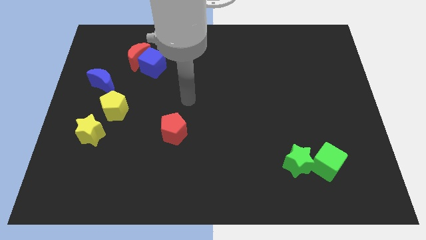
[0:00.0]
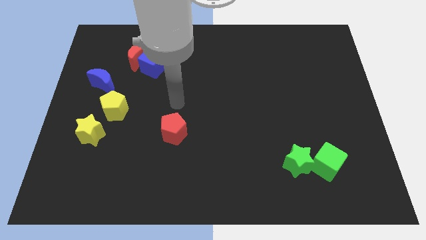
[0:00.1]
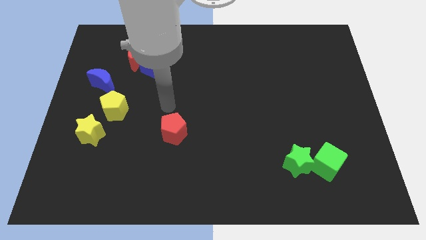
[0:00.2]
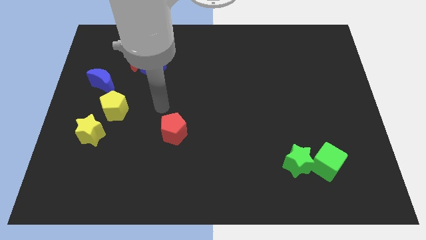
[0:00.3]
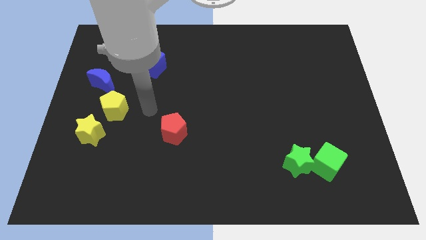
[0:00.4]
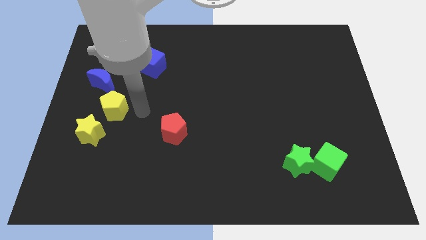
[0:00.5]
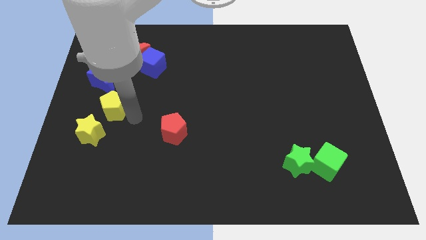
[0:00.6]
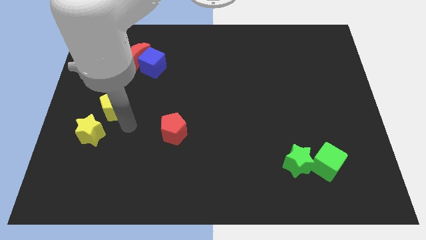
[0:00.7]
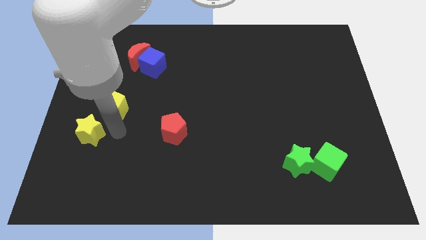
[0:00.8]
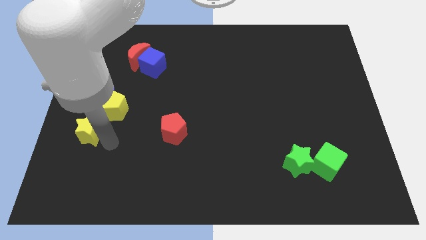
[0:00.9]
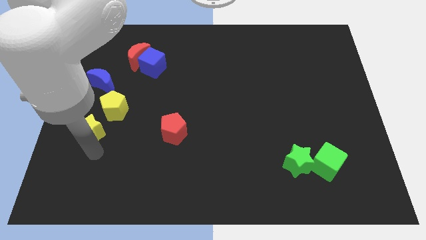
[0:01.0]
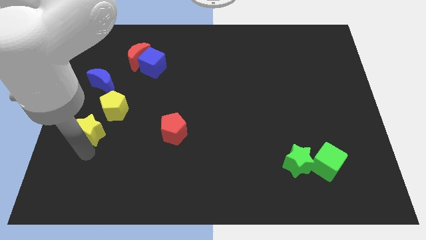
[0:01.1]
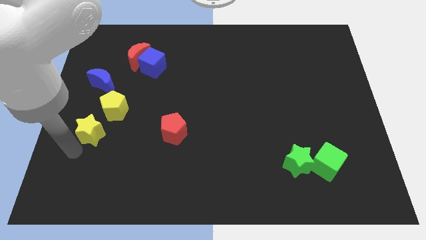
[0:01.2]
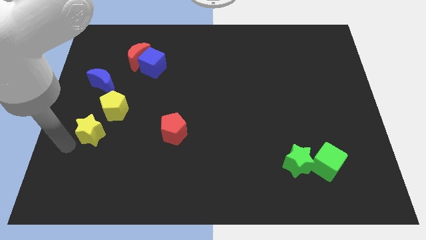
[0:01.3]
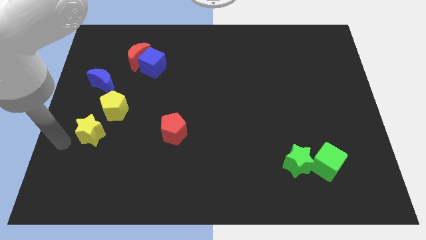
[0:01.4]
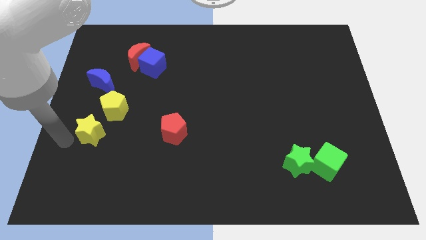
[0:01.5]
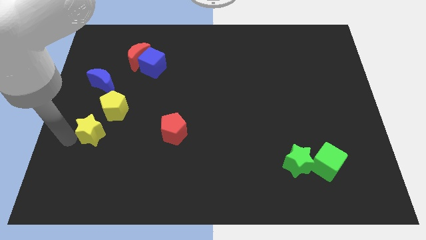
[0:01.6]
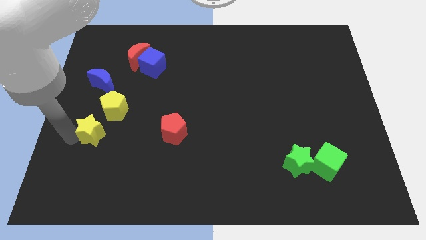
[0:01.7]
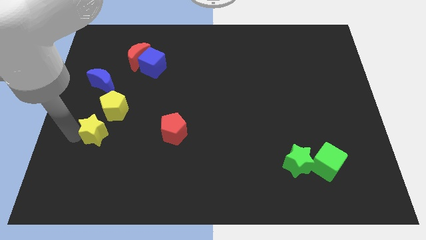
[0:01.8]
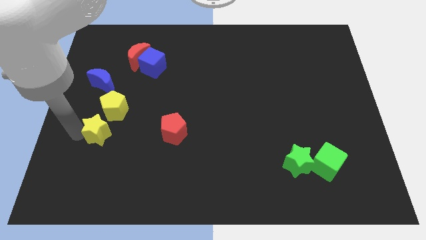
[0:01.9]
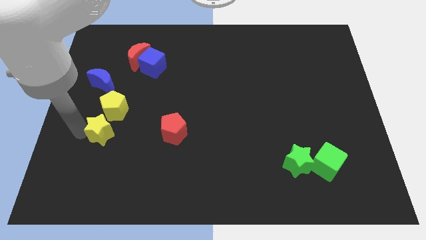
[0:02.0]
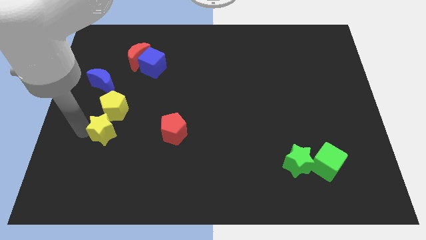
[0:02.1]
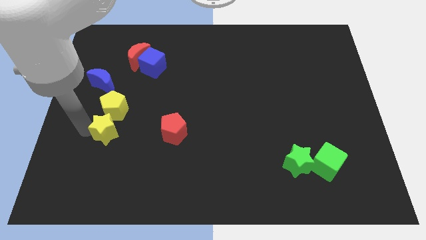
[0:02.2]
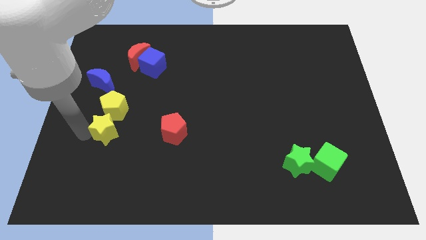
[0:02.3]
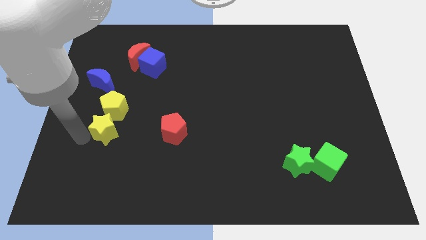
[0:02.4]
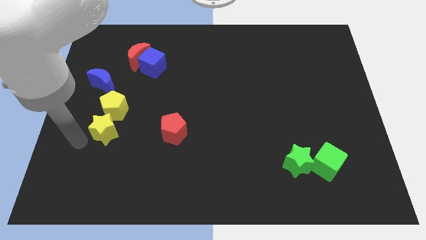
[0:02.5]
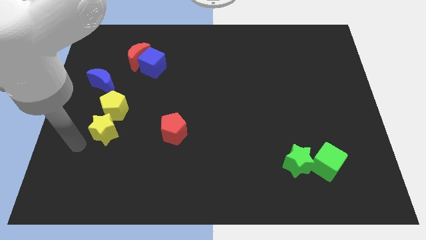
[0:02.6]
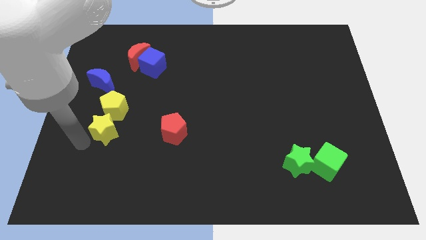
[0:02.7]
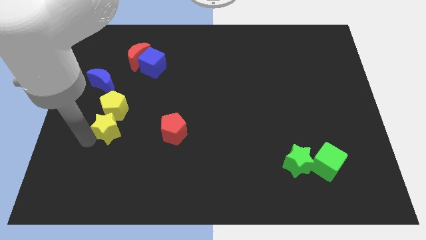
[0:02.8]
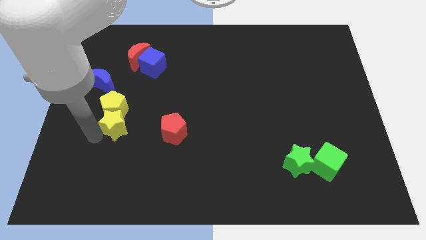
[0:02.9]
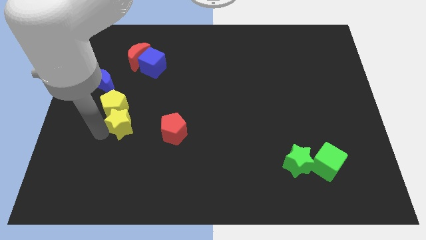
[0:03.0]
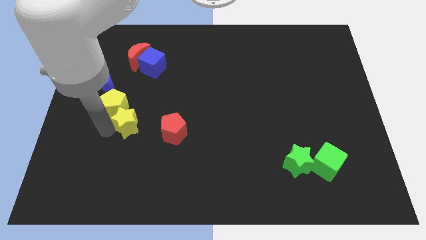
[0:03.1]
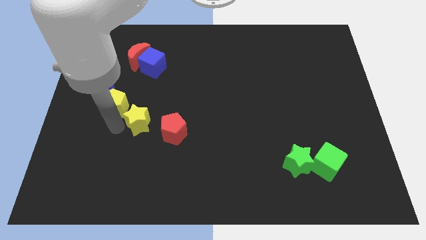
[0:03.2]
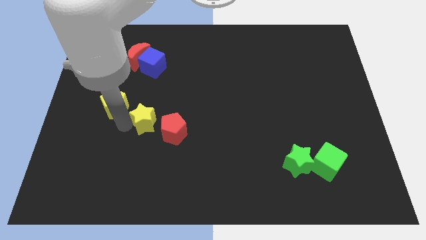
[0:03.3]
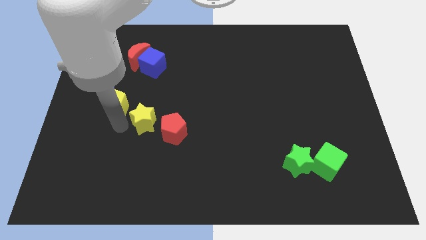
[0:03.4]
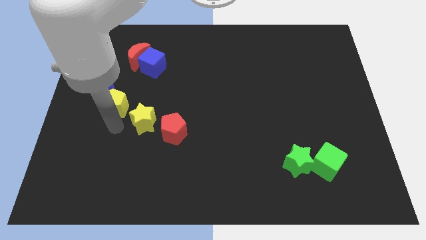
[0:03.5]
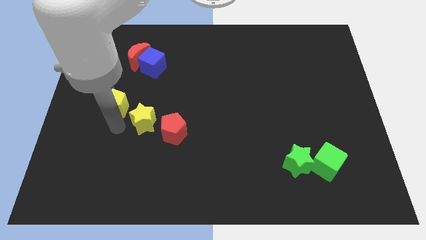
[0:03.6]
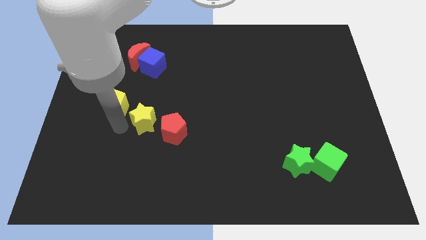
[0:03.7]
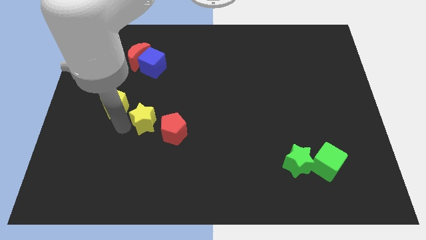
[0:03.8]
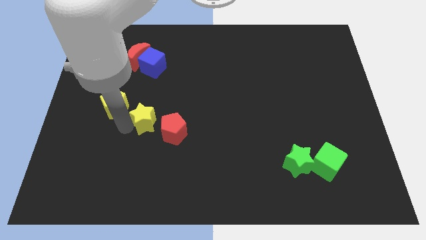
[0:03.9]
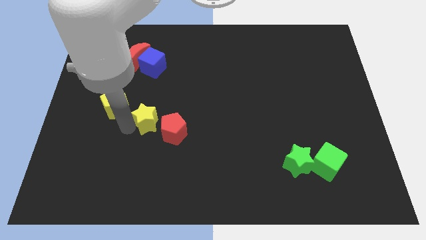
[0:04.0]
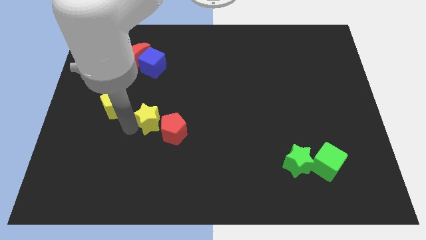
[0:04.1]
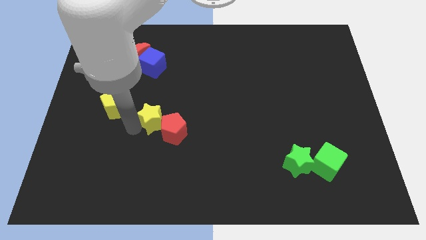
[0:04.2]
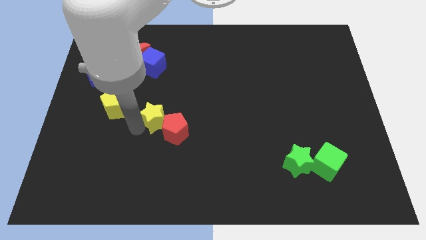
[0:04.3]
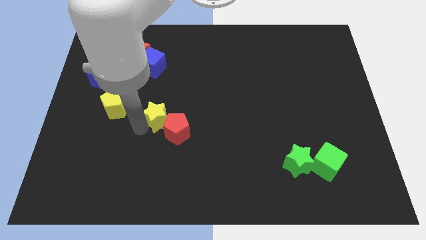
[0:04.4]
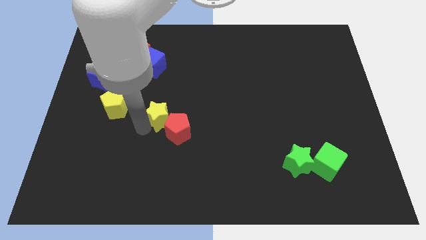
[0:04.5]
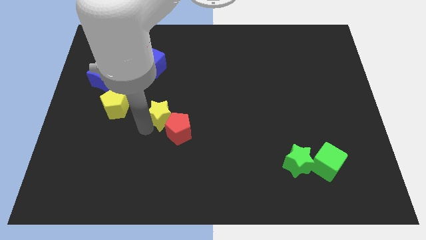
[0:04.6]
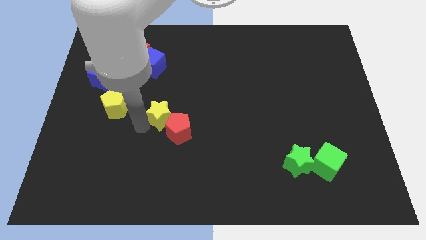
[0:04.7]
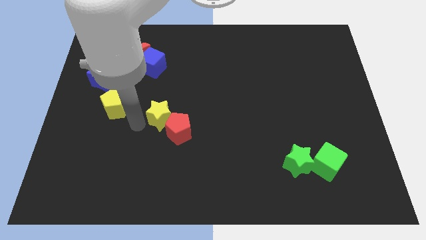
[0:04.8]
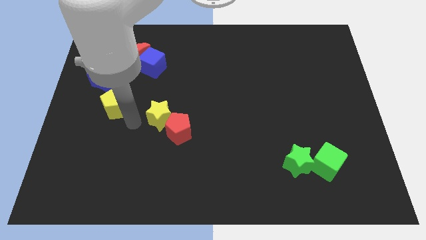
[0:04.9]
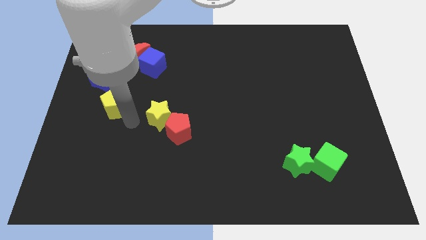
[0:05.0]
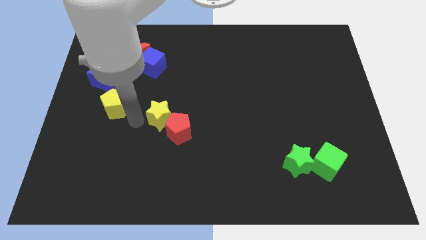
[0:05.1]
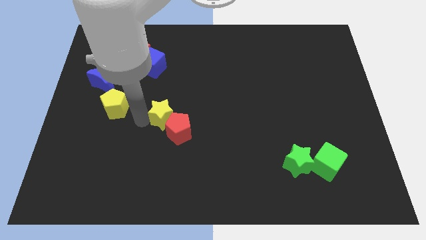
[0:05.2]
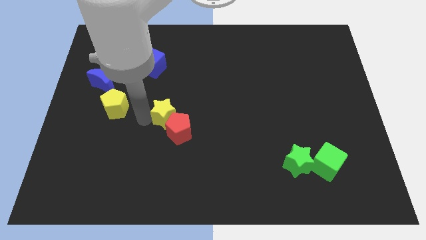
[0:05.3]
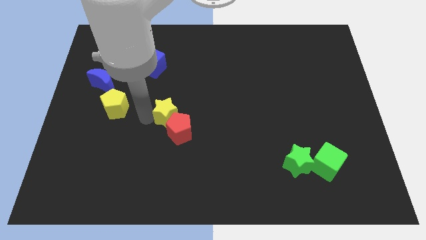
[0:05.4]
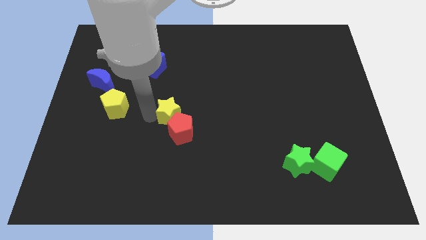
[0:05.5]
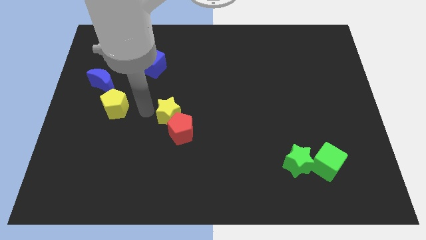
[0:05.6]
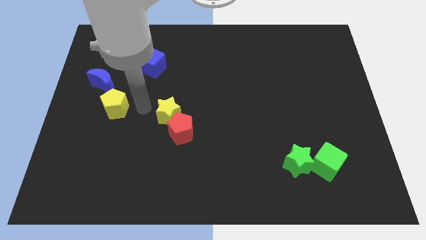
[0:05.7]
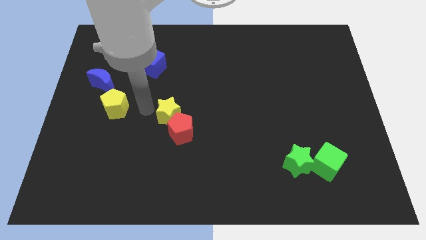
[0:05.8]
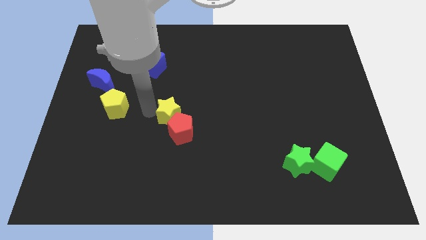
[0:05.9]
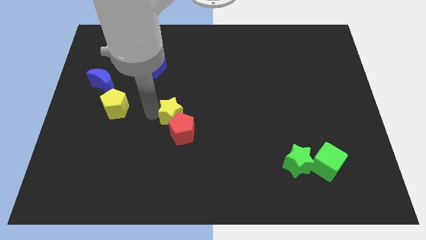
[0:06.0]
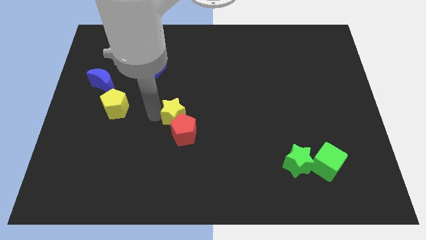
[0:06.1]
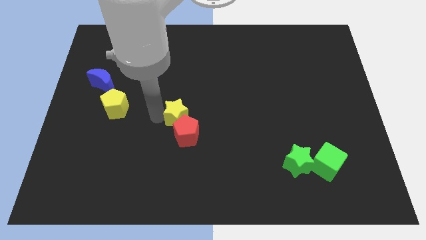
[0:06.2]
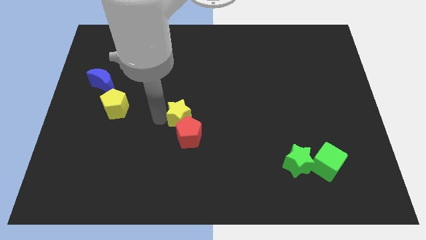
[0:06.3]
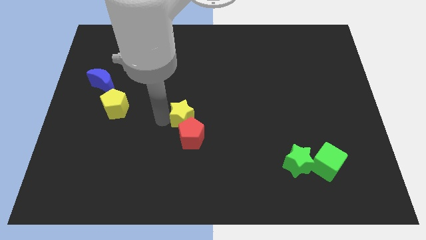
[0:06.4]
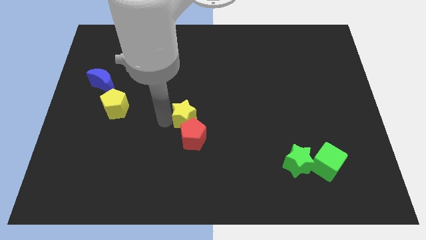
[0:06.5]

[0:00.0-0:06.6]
push the yellow star right

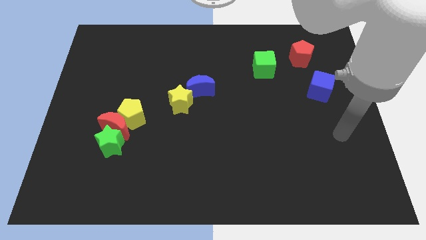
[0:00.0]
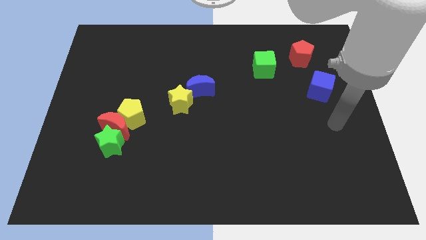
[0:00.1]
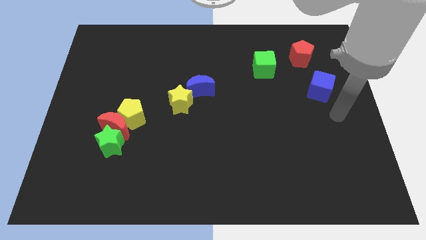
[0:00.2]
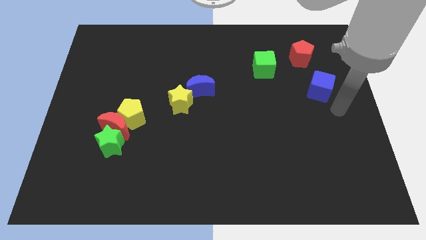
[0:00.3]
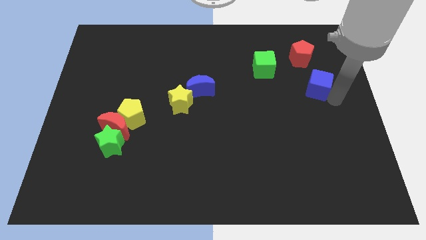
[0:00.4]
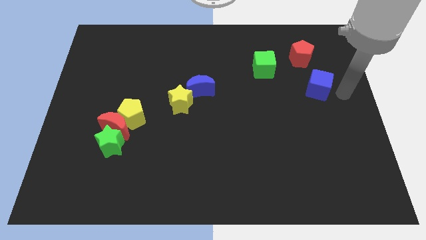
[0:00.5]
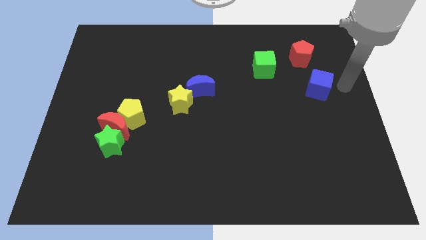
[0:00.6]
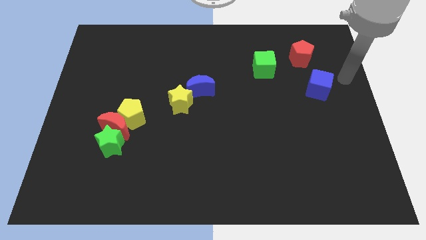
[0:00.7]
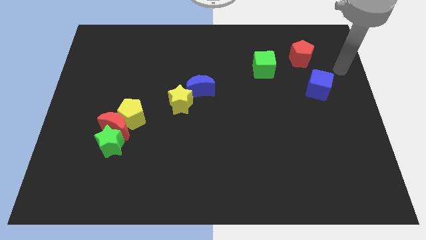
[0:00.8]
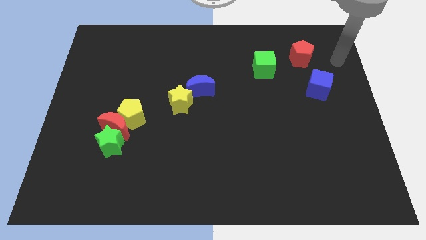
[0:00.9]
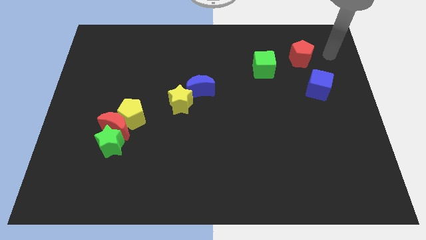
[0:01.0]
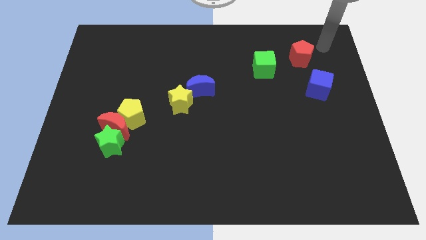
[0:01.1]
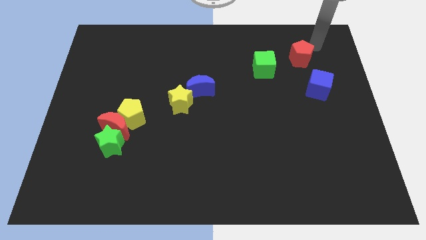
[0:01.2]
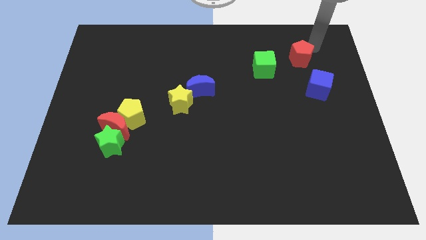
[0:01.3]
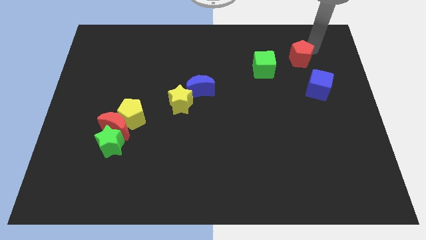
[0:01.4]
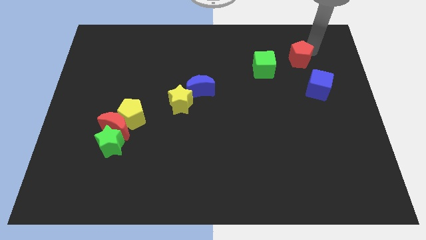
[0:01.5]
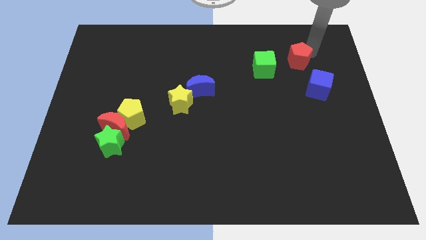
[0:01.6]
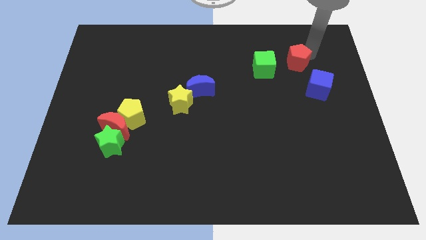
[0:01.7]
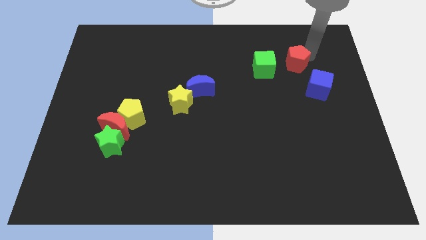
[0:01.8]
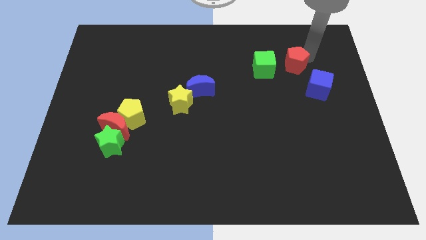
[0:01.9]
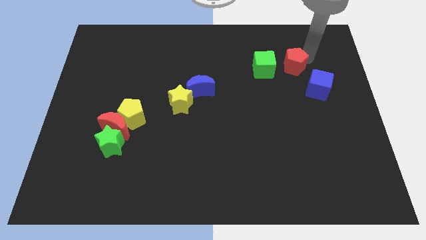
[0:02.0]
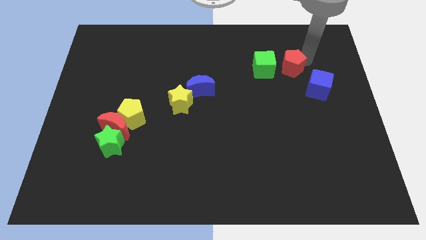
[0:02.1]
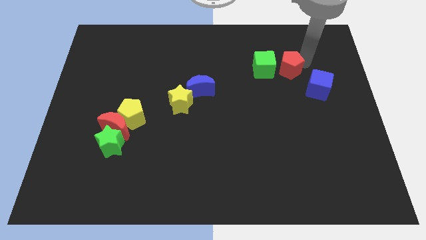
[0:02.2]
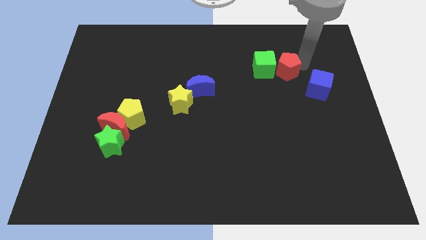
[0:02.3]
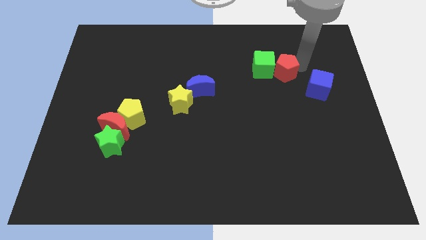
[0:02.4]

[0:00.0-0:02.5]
slightly push the red pentagon down and to the left
